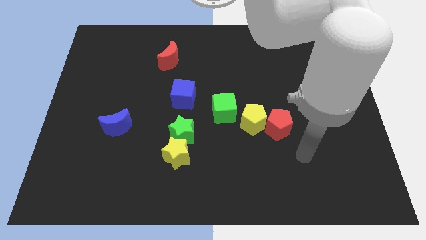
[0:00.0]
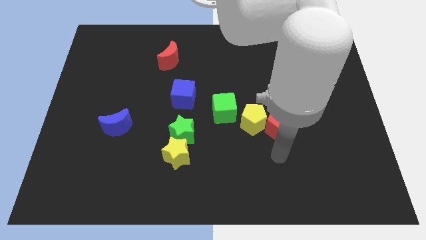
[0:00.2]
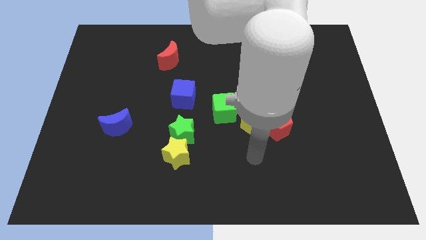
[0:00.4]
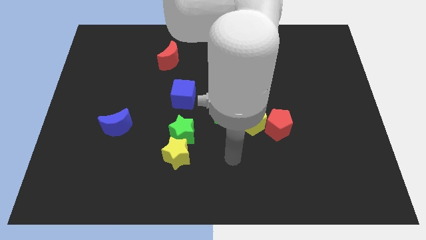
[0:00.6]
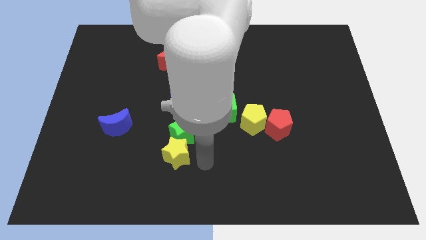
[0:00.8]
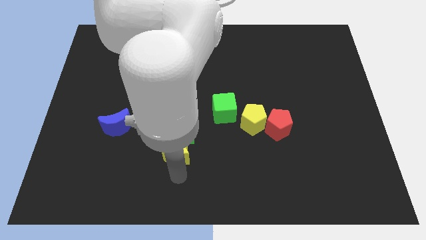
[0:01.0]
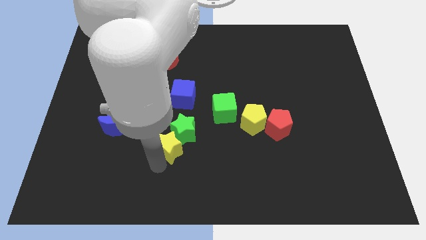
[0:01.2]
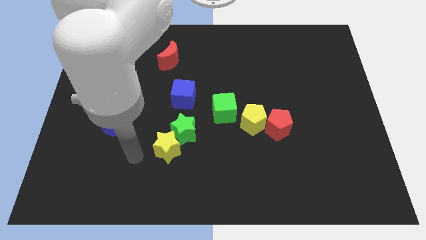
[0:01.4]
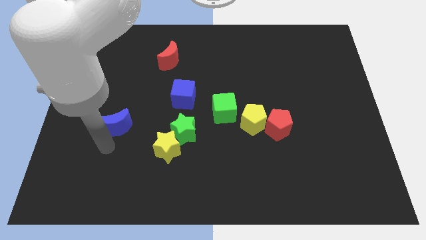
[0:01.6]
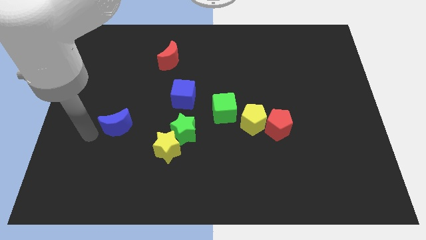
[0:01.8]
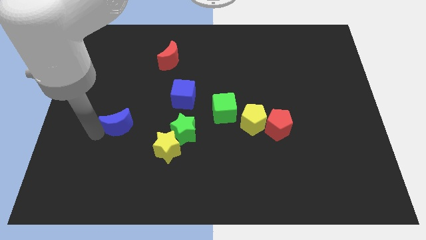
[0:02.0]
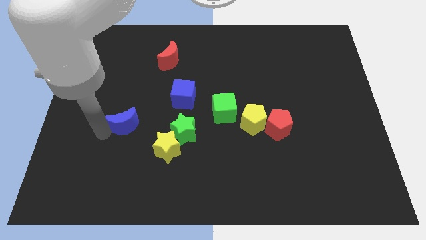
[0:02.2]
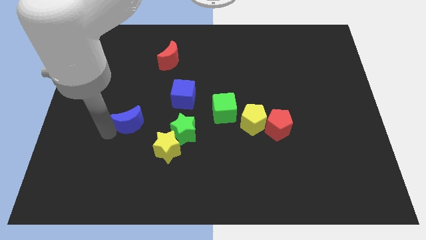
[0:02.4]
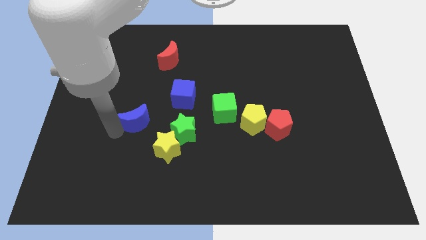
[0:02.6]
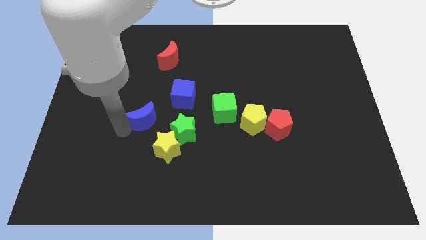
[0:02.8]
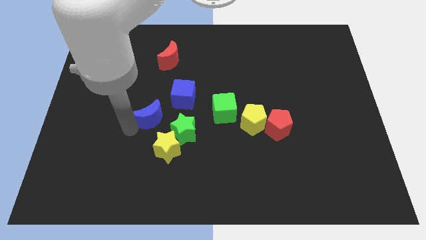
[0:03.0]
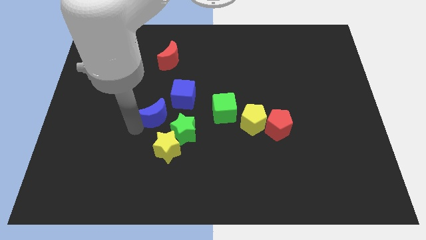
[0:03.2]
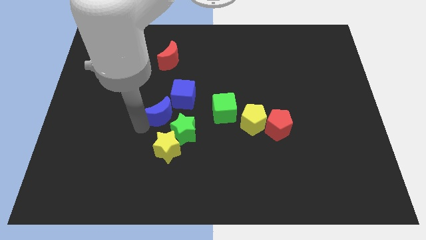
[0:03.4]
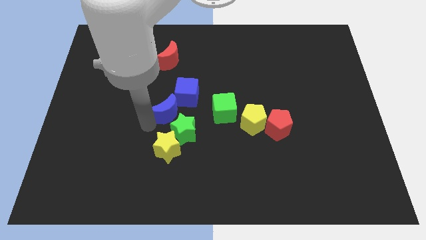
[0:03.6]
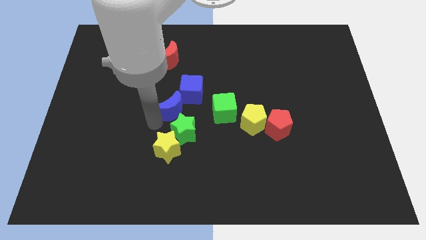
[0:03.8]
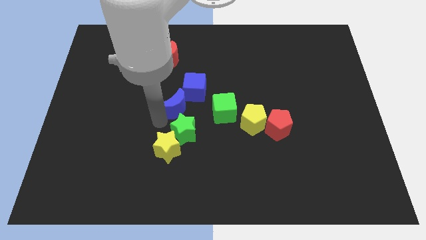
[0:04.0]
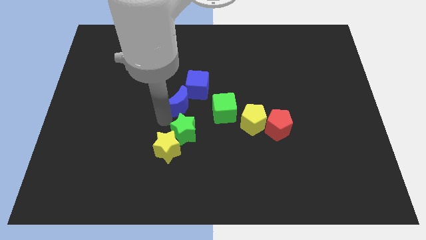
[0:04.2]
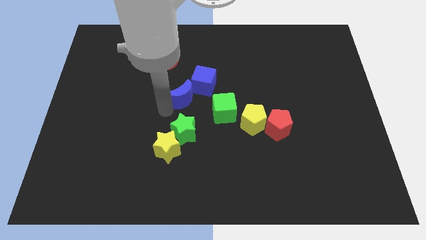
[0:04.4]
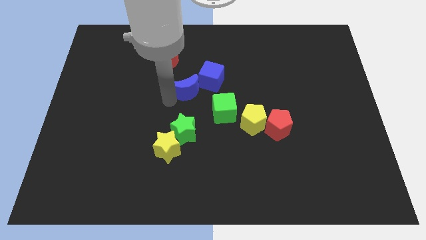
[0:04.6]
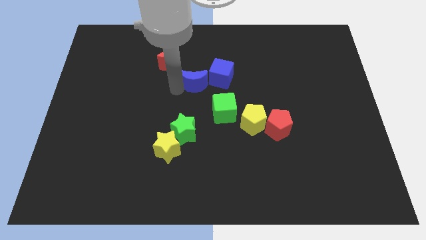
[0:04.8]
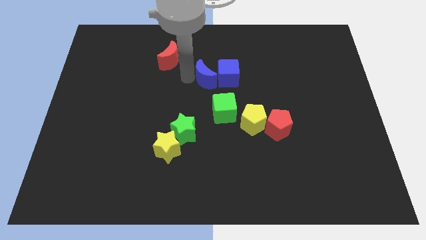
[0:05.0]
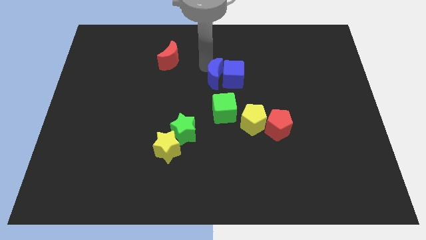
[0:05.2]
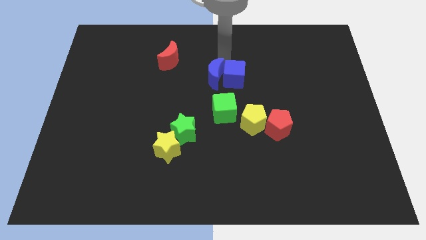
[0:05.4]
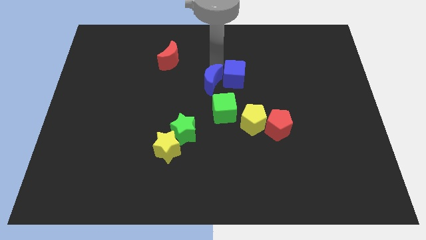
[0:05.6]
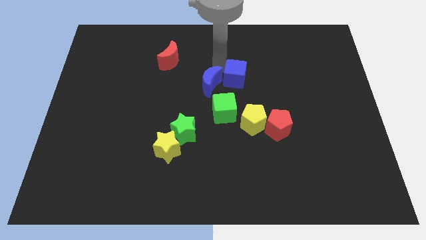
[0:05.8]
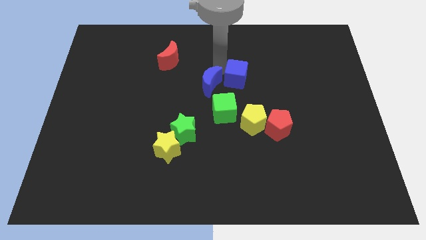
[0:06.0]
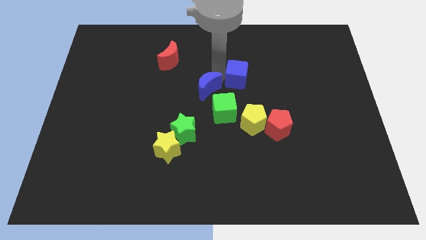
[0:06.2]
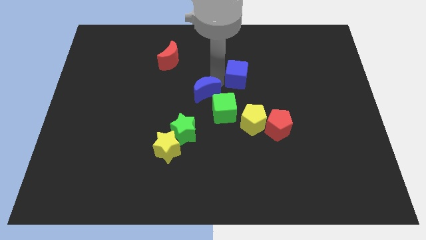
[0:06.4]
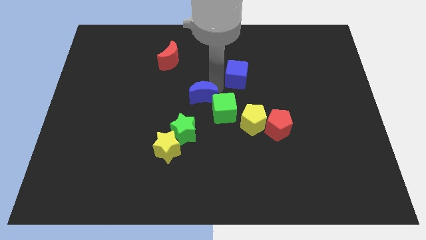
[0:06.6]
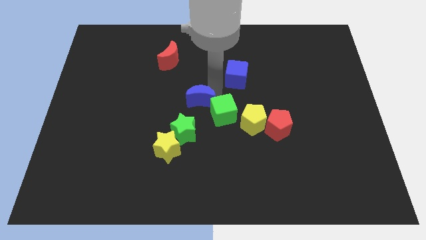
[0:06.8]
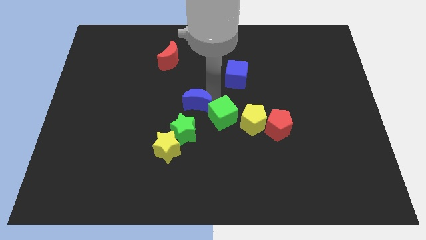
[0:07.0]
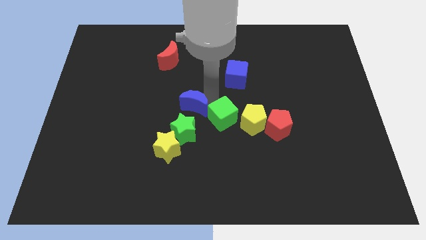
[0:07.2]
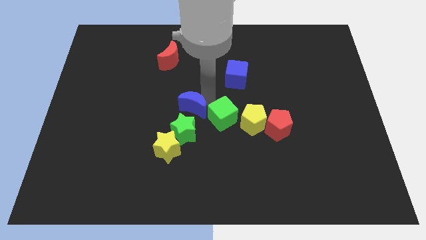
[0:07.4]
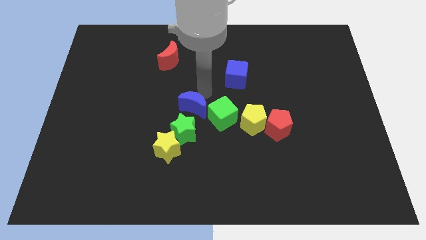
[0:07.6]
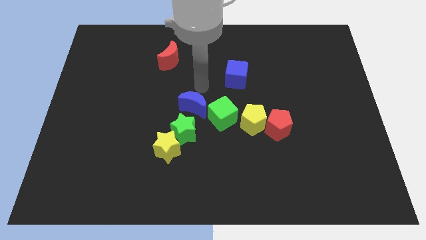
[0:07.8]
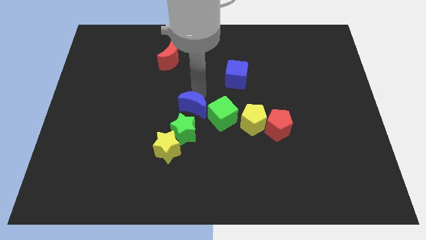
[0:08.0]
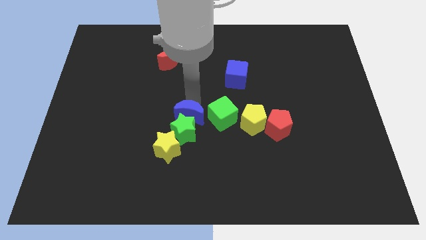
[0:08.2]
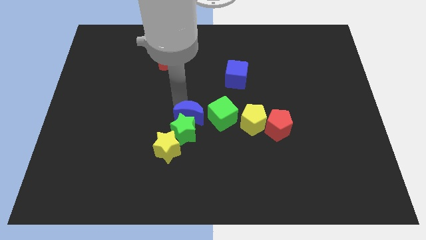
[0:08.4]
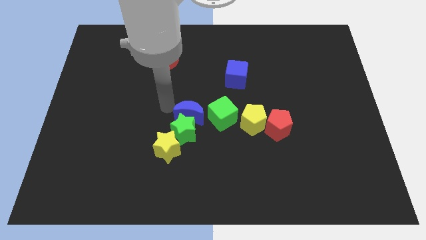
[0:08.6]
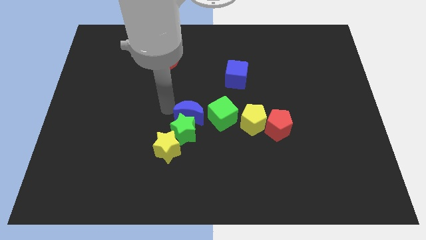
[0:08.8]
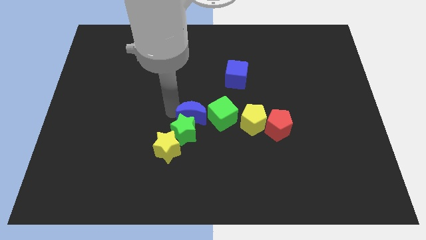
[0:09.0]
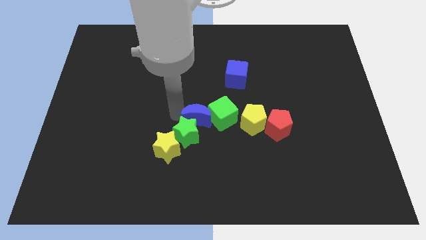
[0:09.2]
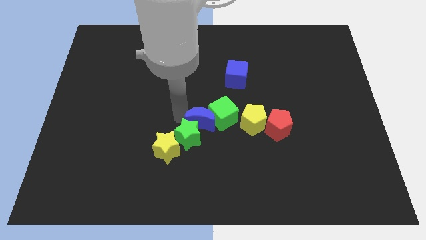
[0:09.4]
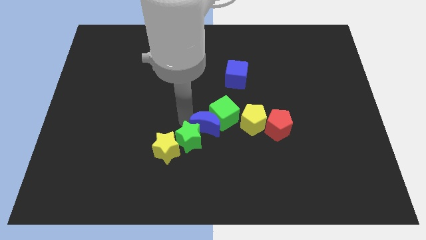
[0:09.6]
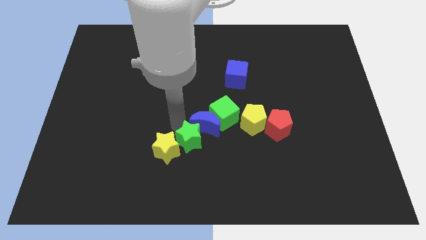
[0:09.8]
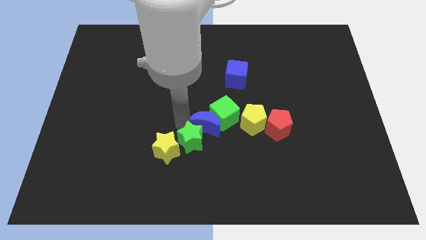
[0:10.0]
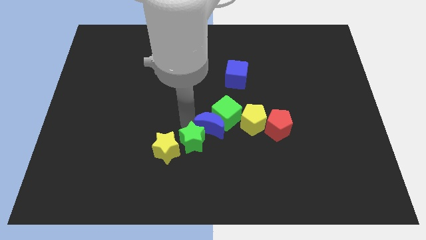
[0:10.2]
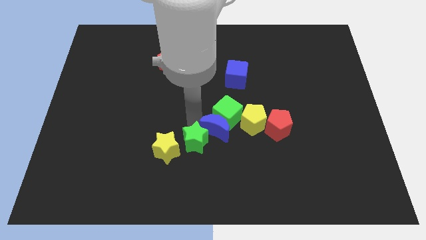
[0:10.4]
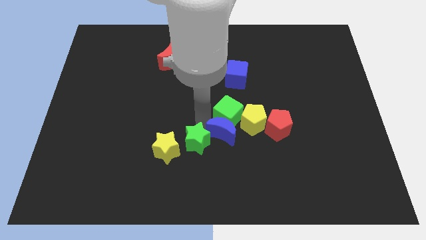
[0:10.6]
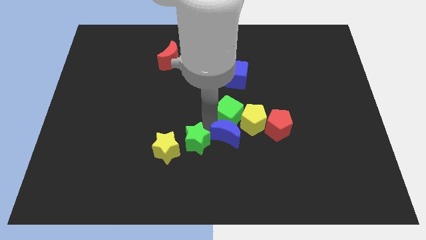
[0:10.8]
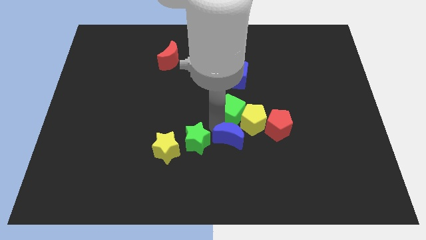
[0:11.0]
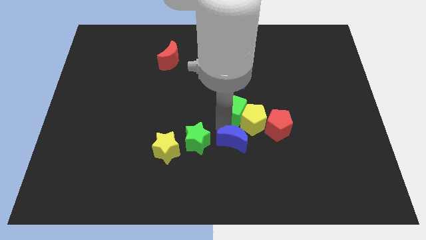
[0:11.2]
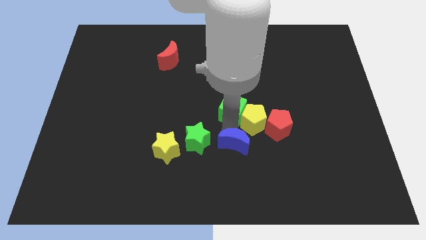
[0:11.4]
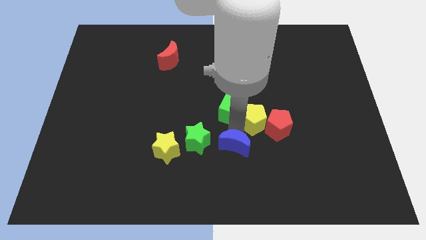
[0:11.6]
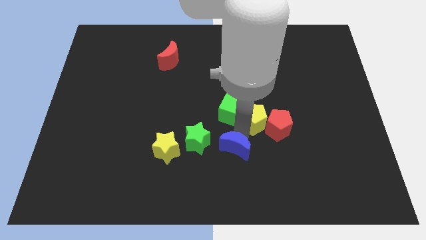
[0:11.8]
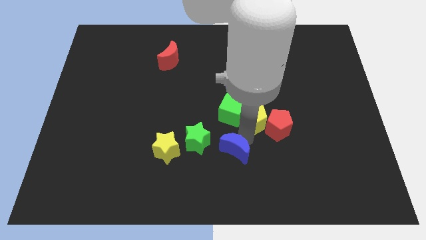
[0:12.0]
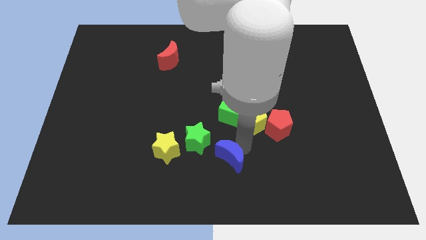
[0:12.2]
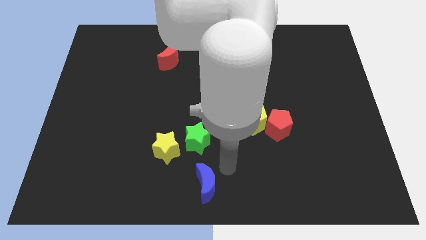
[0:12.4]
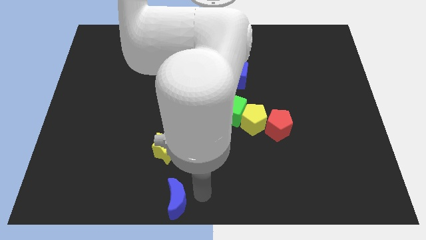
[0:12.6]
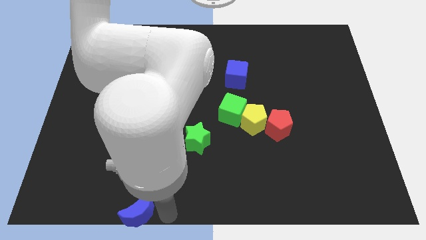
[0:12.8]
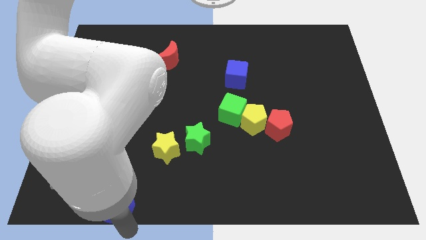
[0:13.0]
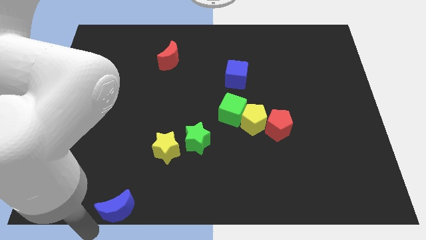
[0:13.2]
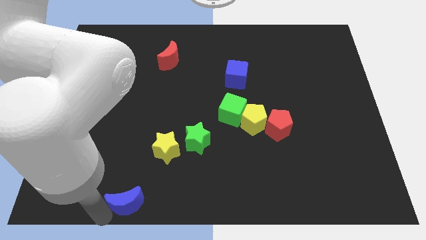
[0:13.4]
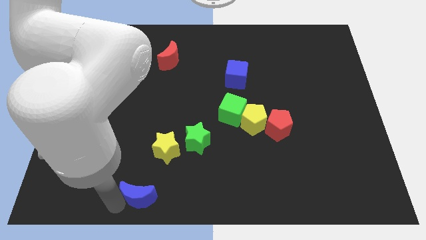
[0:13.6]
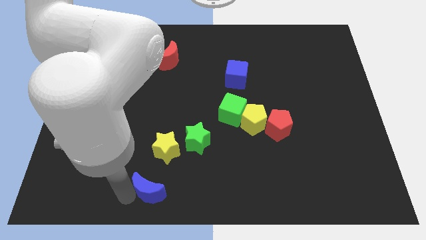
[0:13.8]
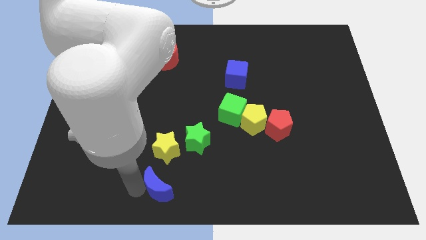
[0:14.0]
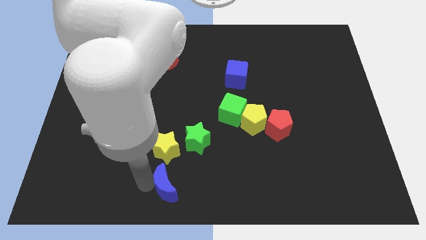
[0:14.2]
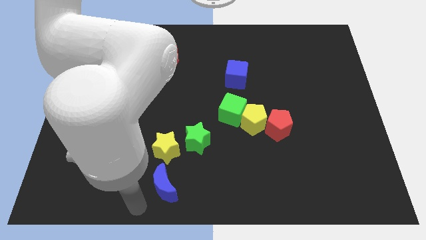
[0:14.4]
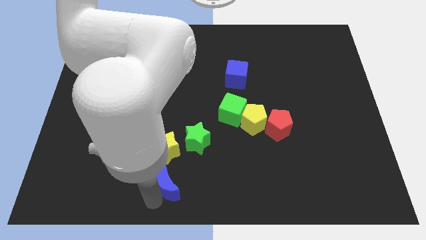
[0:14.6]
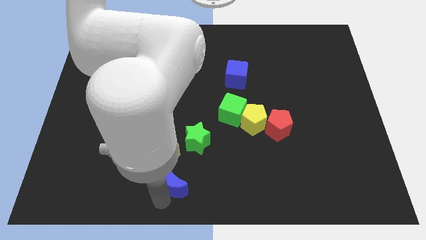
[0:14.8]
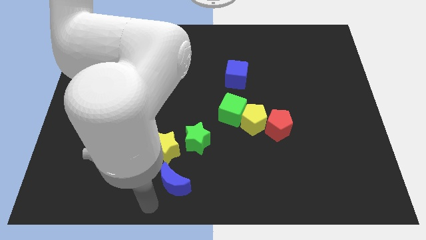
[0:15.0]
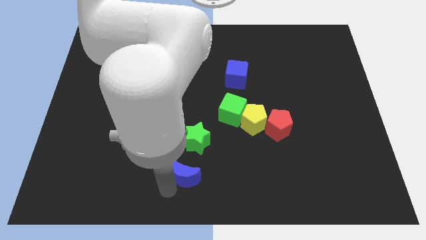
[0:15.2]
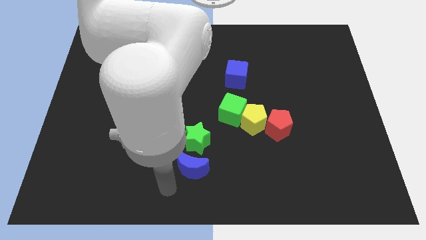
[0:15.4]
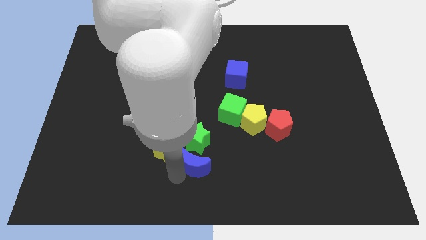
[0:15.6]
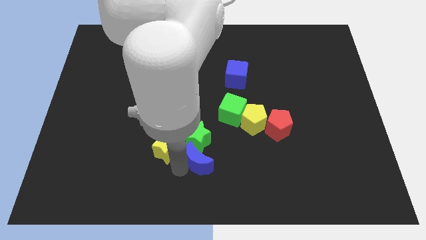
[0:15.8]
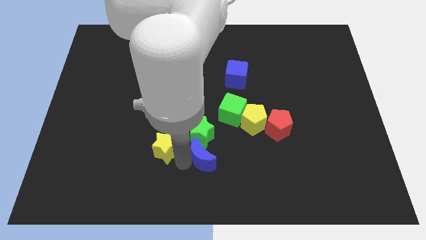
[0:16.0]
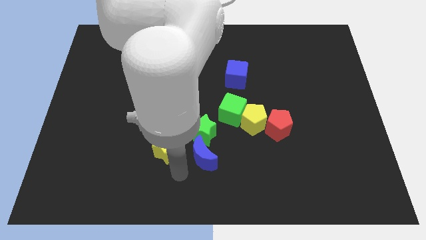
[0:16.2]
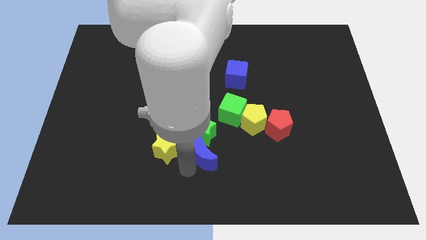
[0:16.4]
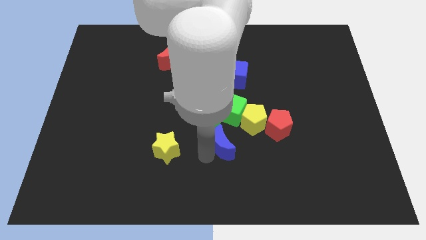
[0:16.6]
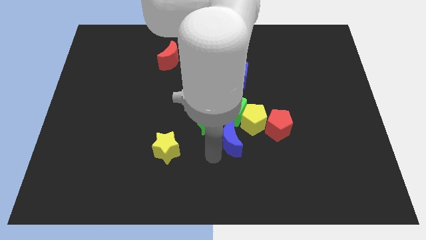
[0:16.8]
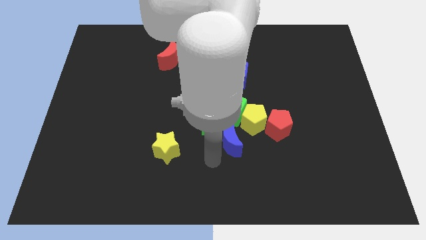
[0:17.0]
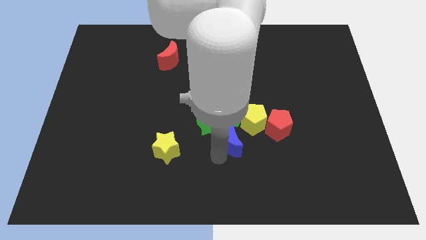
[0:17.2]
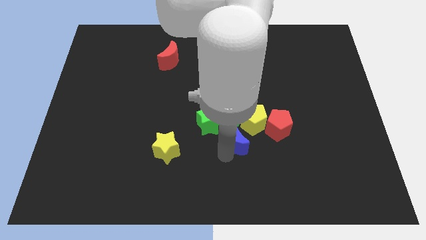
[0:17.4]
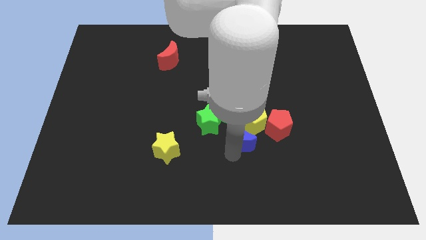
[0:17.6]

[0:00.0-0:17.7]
push the blue moon next to the yellow pentagon
